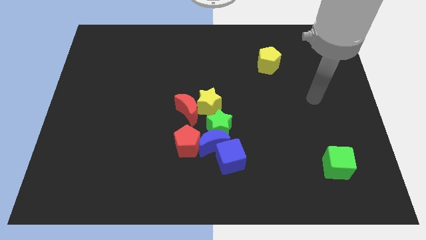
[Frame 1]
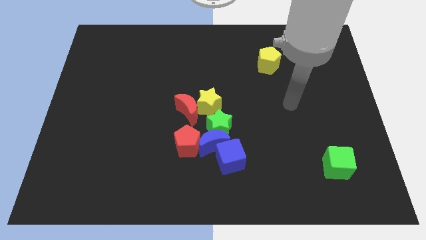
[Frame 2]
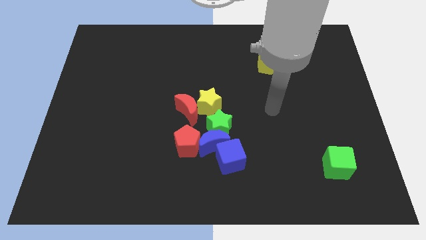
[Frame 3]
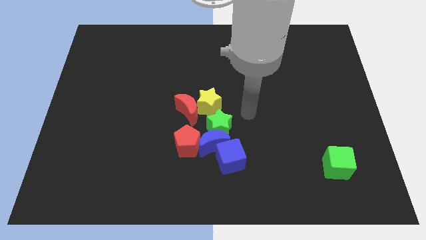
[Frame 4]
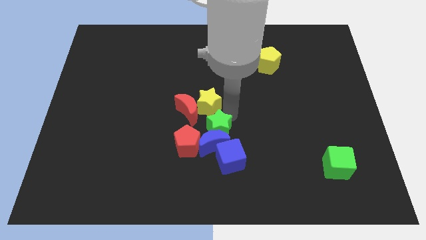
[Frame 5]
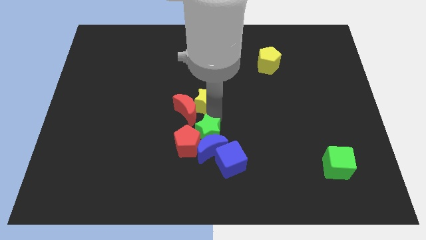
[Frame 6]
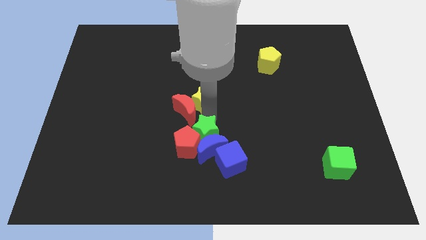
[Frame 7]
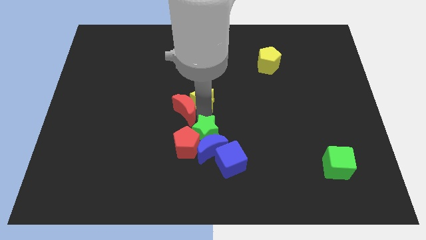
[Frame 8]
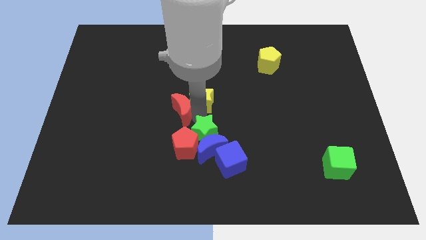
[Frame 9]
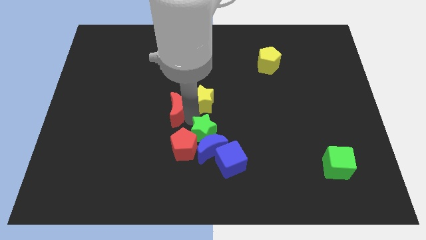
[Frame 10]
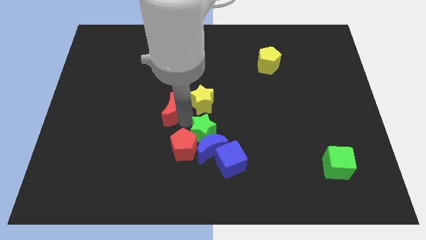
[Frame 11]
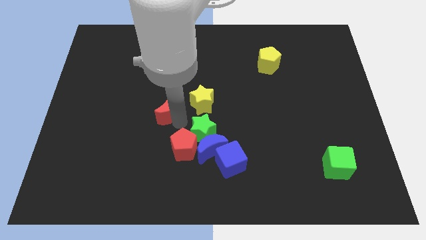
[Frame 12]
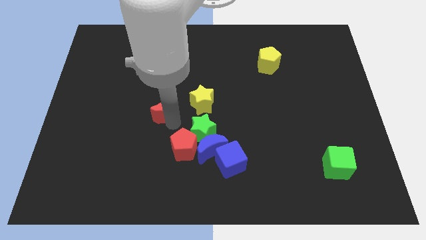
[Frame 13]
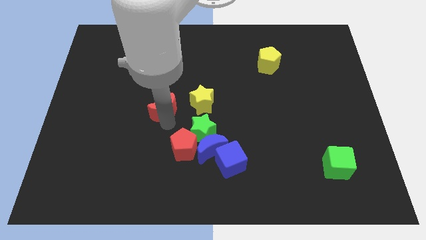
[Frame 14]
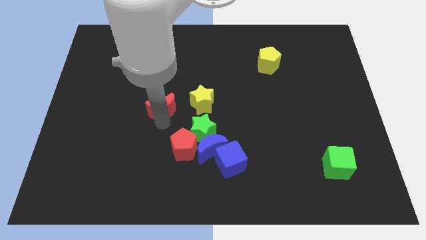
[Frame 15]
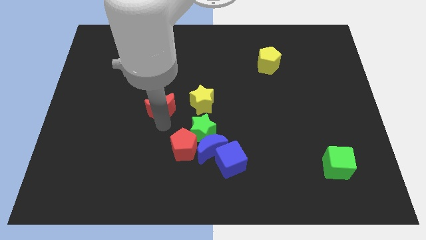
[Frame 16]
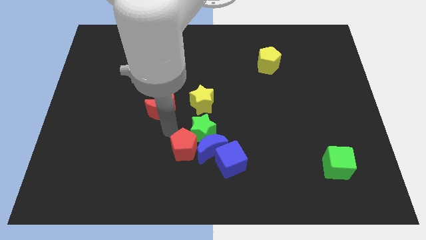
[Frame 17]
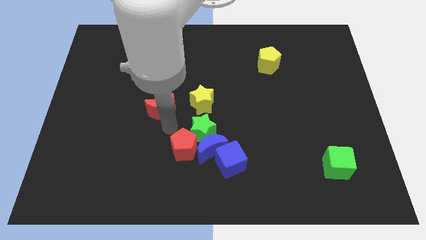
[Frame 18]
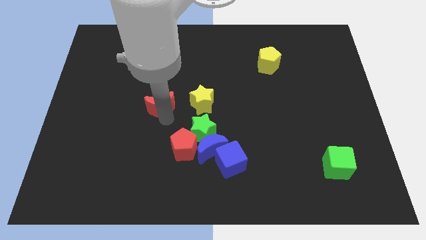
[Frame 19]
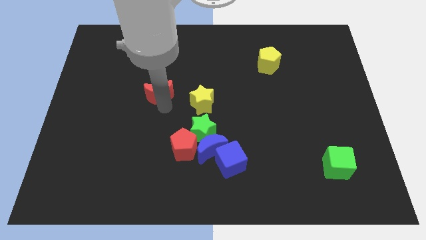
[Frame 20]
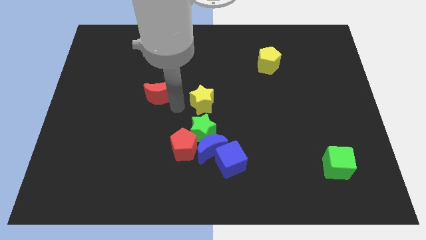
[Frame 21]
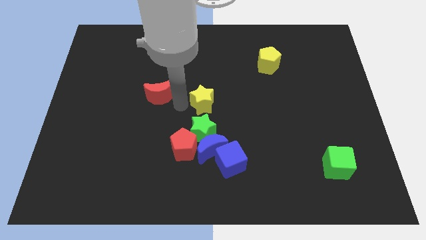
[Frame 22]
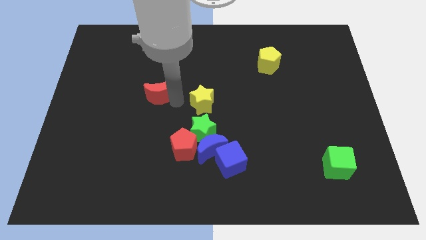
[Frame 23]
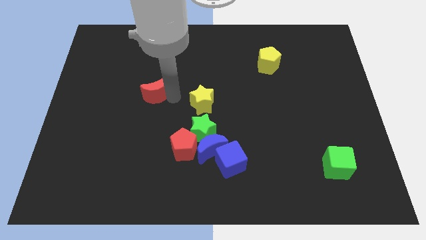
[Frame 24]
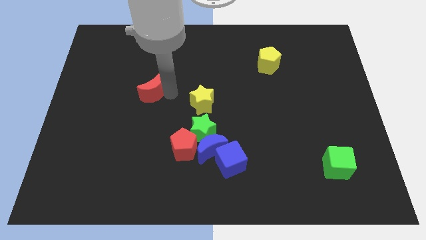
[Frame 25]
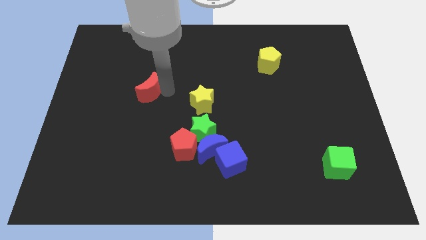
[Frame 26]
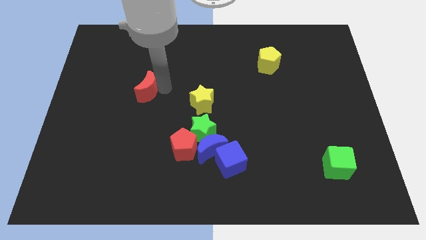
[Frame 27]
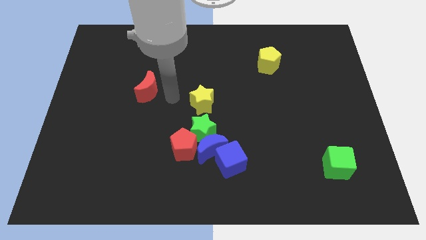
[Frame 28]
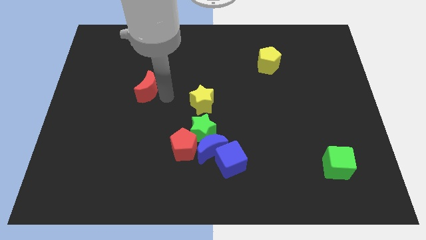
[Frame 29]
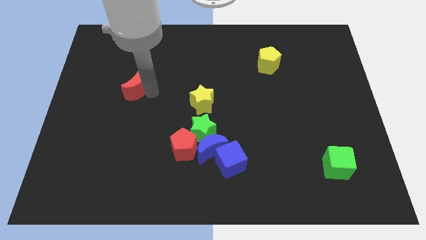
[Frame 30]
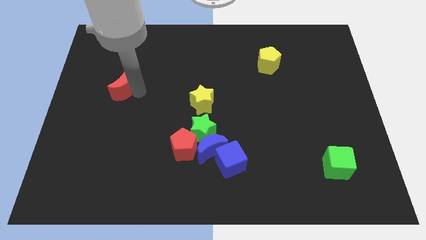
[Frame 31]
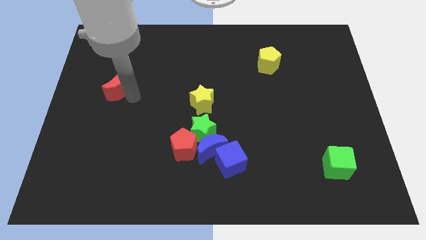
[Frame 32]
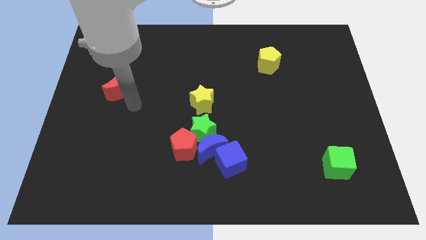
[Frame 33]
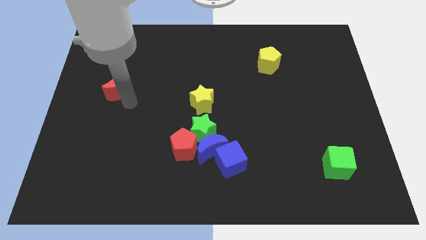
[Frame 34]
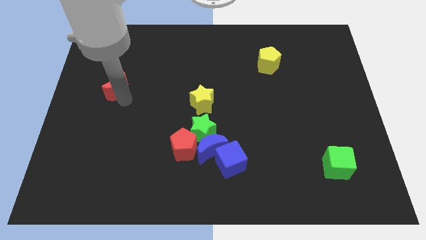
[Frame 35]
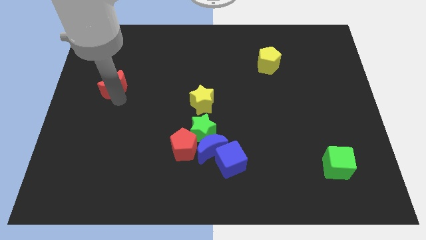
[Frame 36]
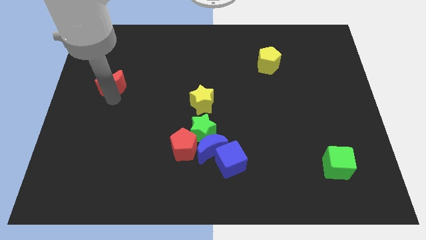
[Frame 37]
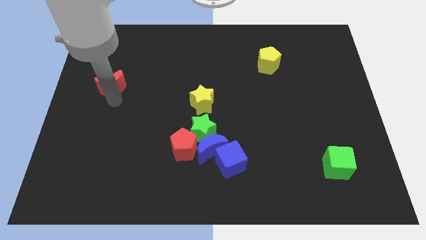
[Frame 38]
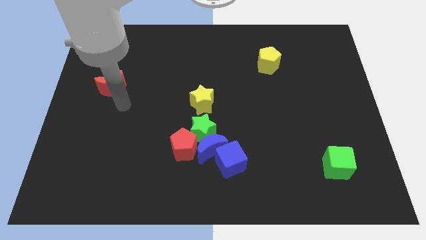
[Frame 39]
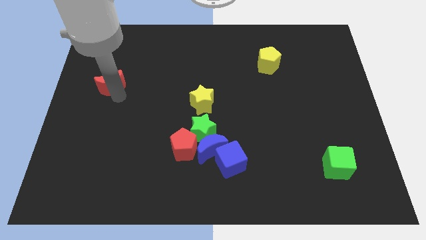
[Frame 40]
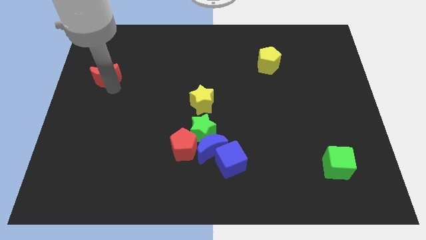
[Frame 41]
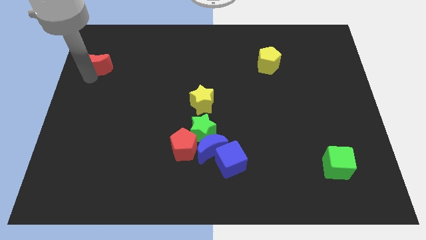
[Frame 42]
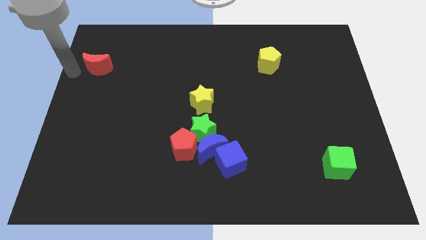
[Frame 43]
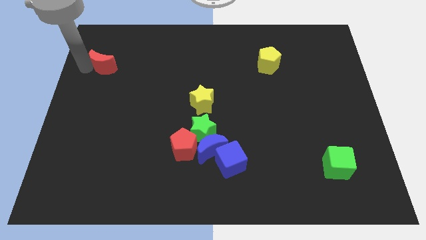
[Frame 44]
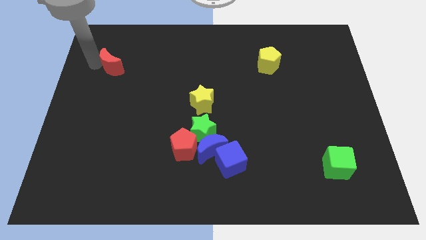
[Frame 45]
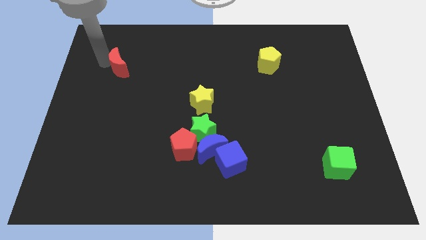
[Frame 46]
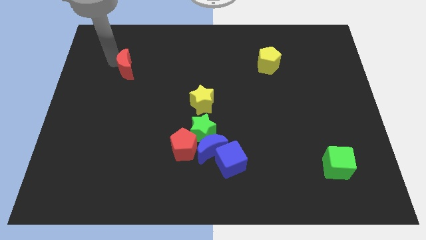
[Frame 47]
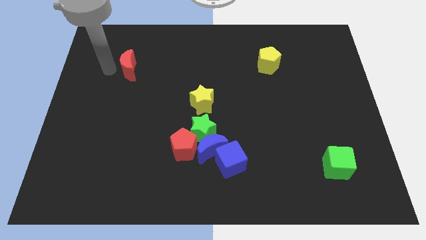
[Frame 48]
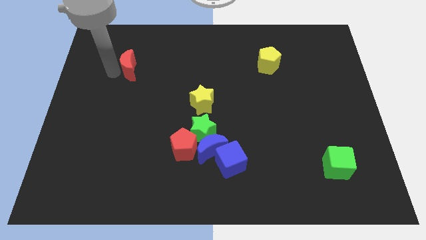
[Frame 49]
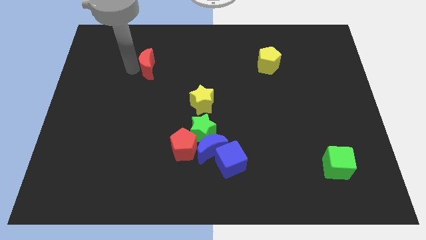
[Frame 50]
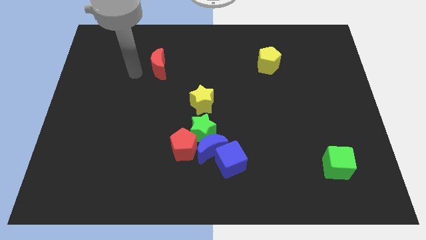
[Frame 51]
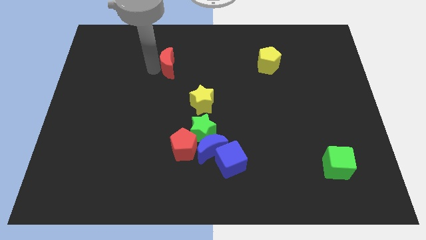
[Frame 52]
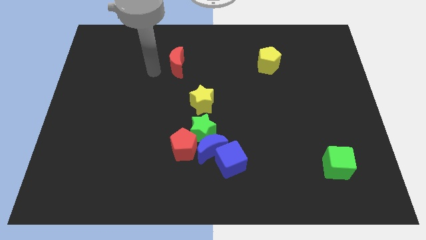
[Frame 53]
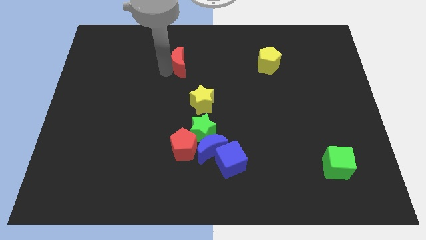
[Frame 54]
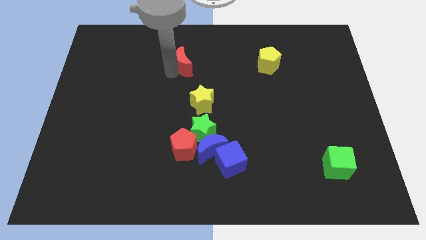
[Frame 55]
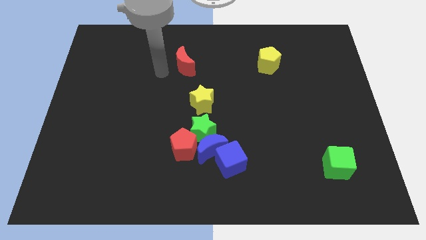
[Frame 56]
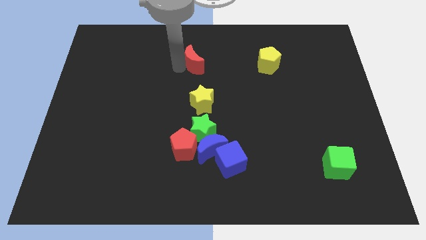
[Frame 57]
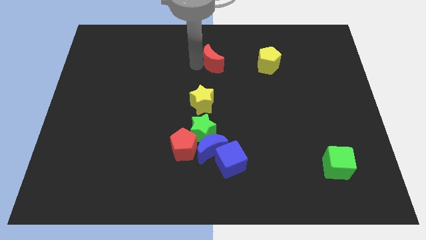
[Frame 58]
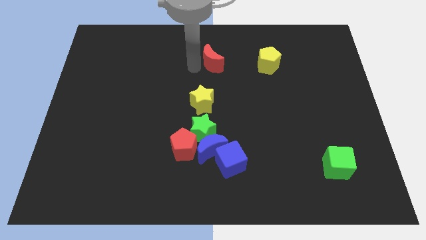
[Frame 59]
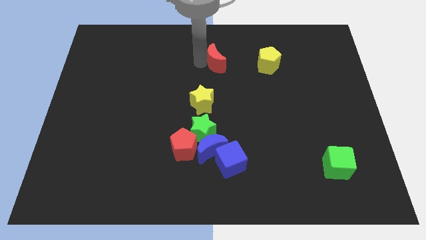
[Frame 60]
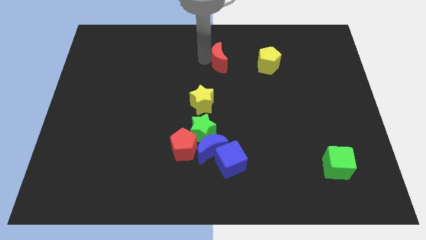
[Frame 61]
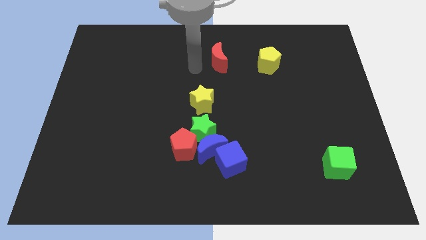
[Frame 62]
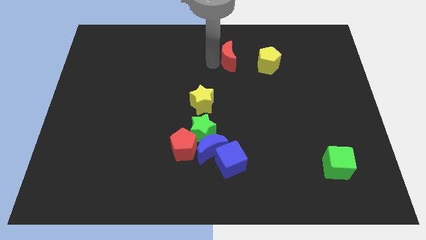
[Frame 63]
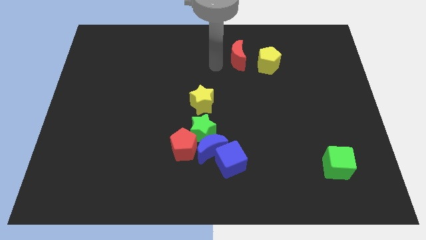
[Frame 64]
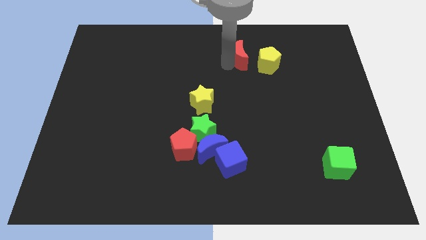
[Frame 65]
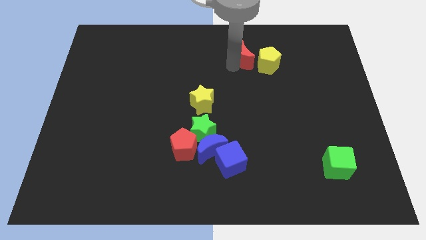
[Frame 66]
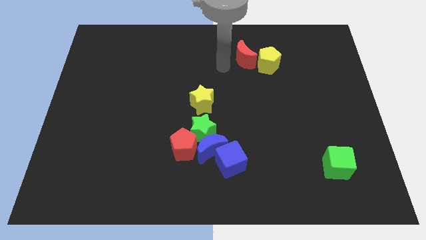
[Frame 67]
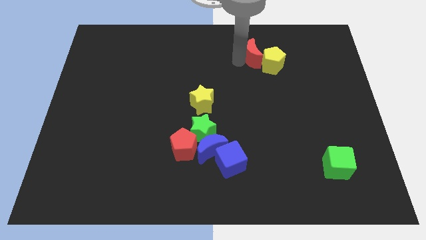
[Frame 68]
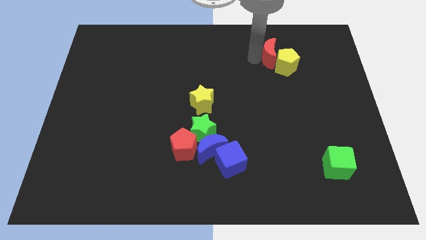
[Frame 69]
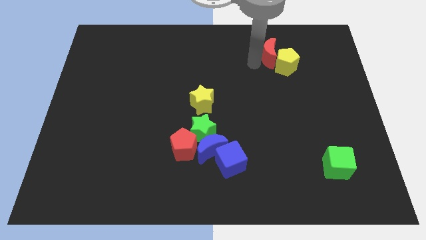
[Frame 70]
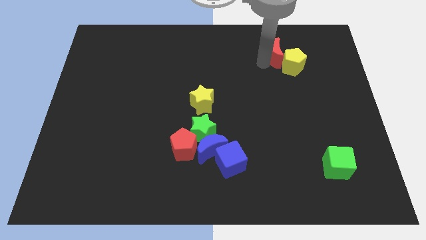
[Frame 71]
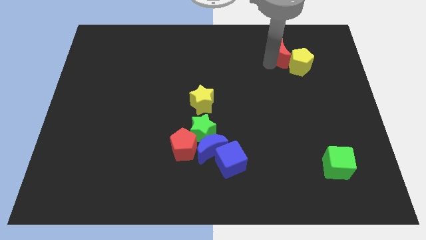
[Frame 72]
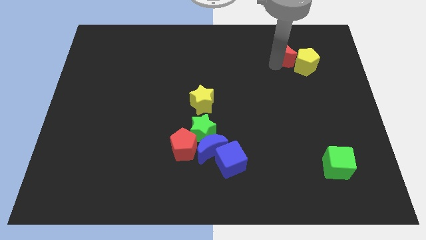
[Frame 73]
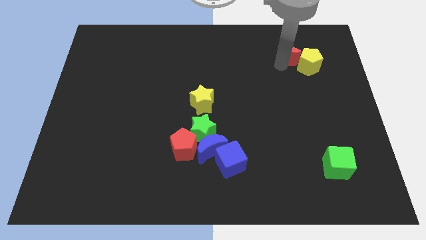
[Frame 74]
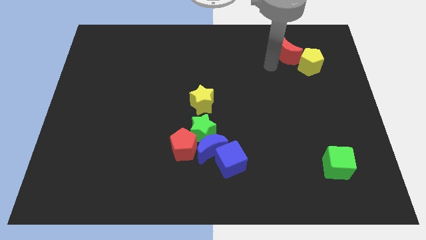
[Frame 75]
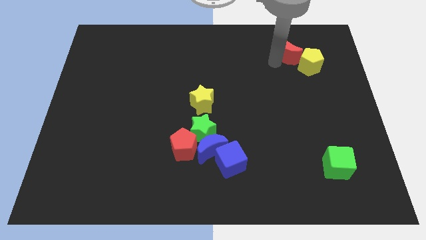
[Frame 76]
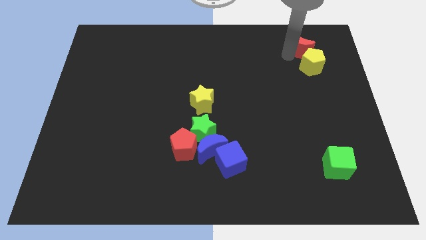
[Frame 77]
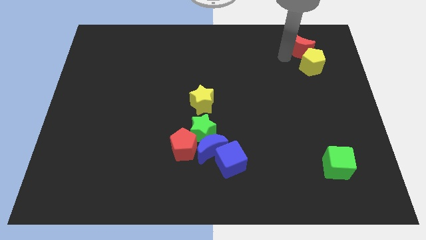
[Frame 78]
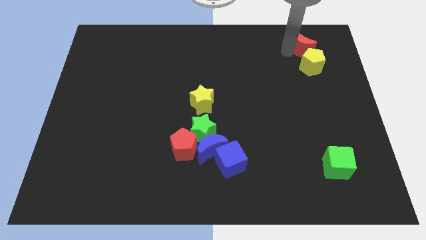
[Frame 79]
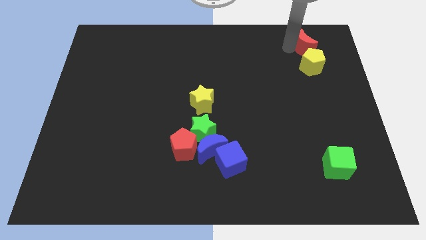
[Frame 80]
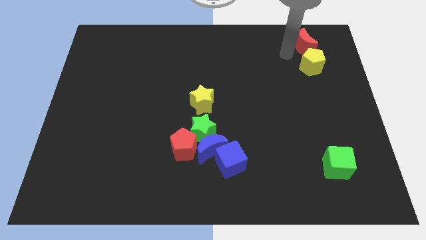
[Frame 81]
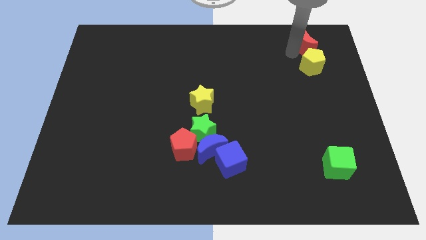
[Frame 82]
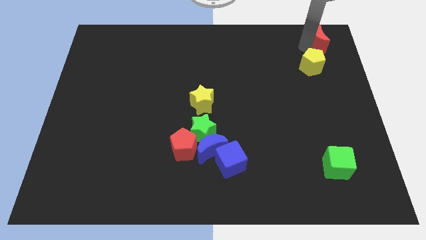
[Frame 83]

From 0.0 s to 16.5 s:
push the red moon to the upper right corner
